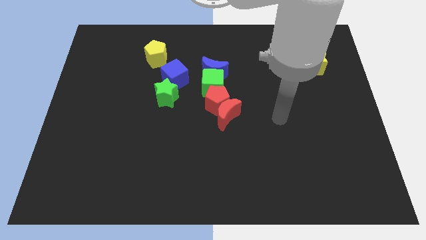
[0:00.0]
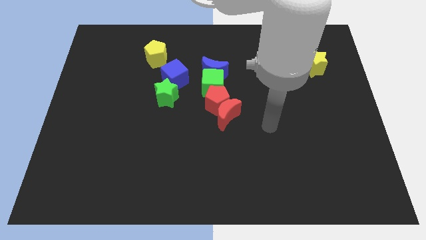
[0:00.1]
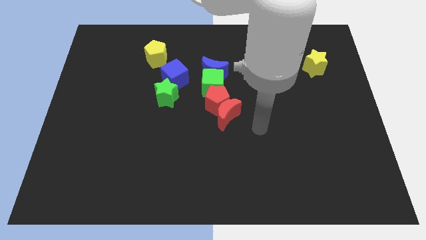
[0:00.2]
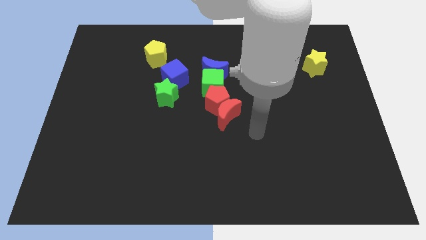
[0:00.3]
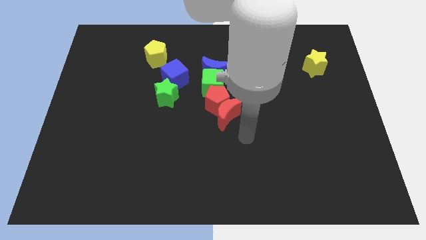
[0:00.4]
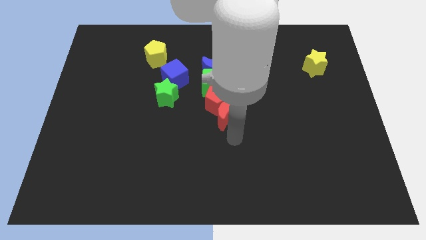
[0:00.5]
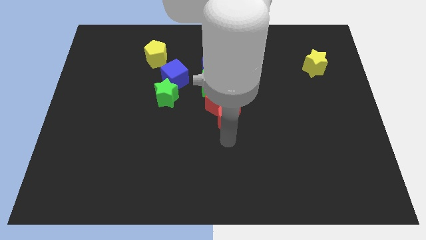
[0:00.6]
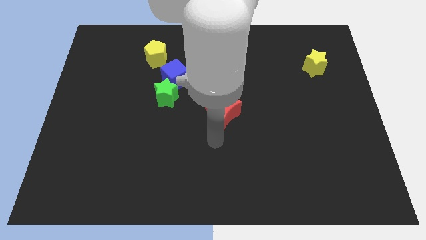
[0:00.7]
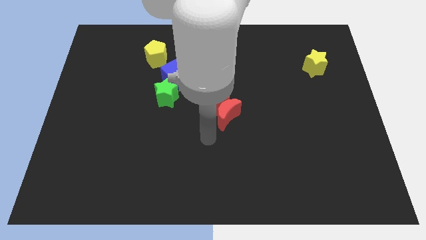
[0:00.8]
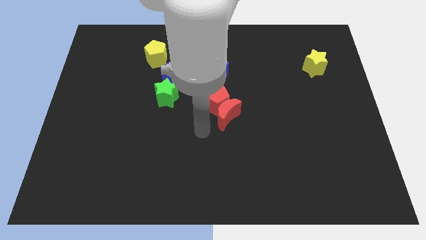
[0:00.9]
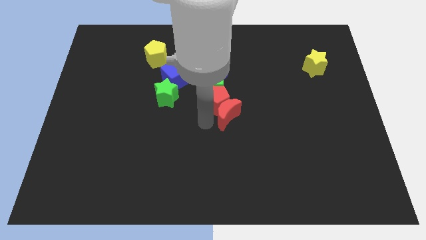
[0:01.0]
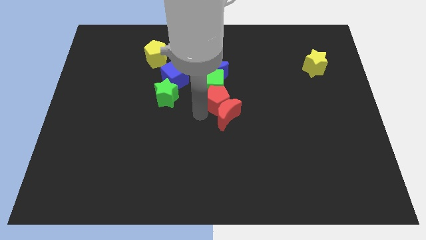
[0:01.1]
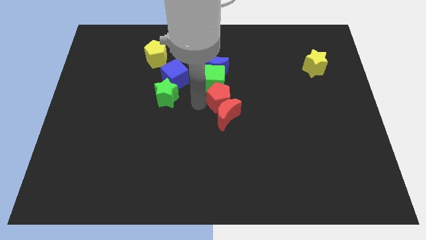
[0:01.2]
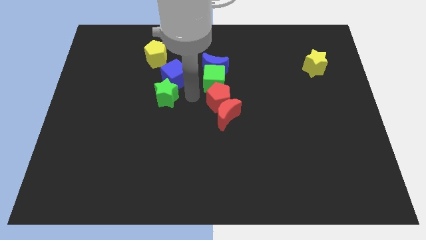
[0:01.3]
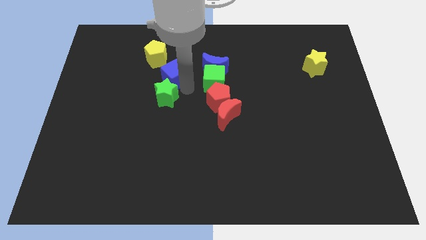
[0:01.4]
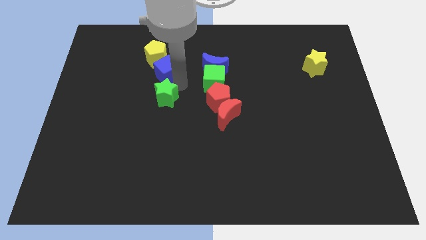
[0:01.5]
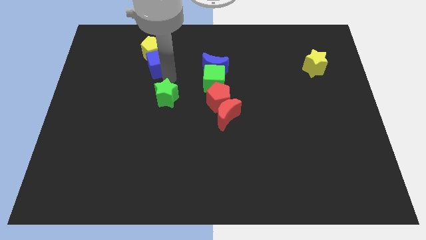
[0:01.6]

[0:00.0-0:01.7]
move the green star away from the blue cube

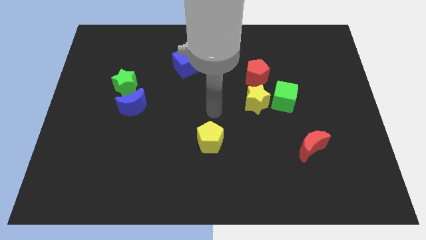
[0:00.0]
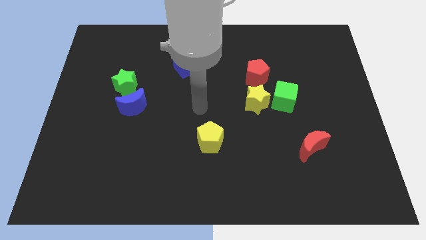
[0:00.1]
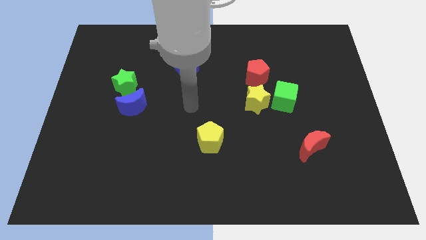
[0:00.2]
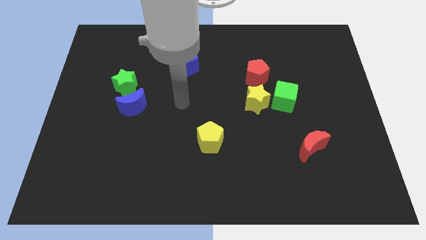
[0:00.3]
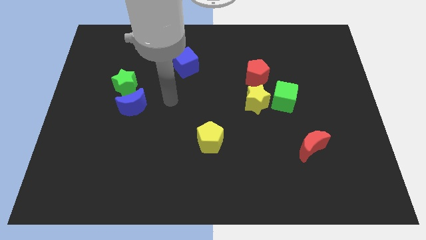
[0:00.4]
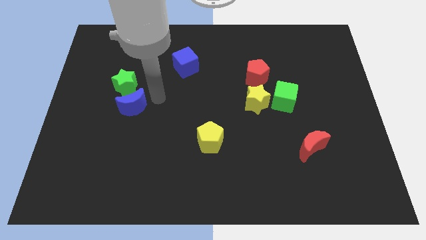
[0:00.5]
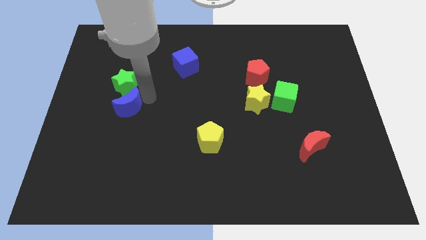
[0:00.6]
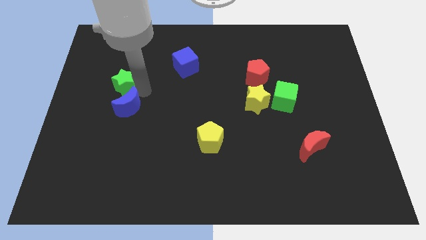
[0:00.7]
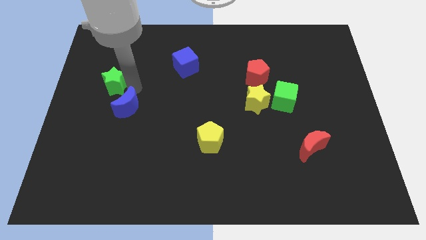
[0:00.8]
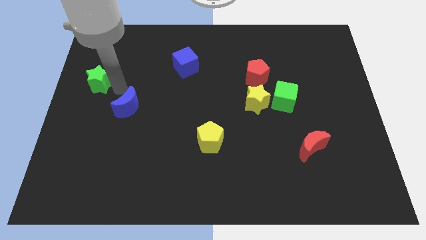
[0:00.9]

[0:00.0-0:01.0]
move the blue moon away from the green star

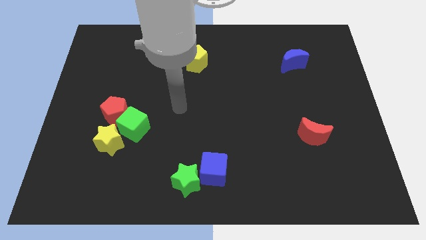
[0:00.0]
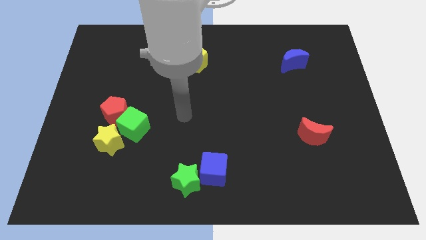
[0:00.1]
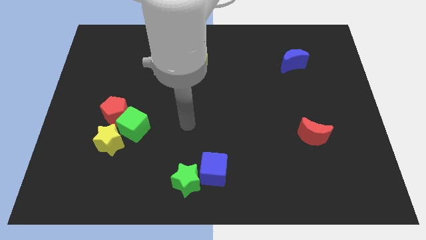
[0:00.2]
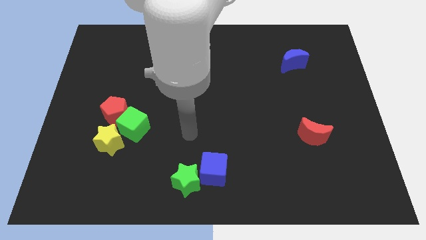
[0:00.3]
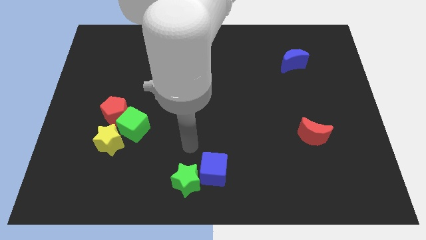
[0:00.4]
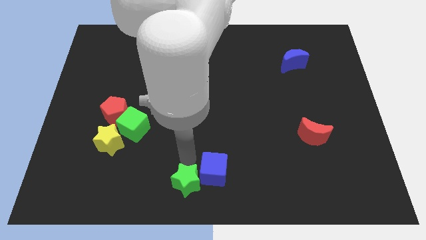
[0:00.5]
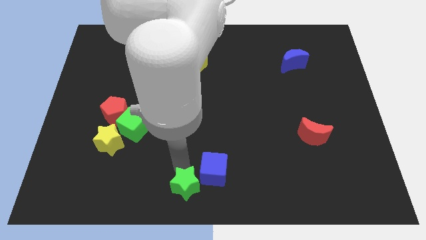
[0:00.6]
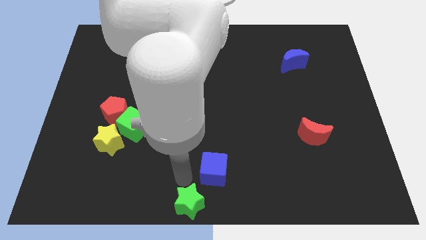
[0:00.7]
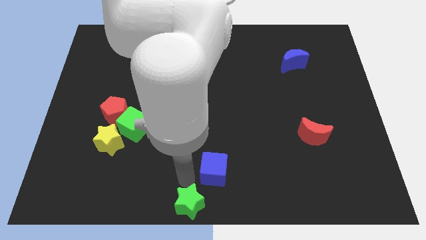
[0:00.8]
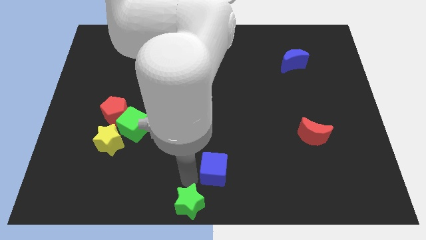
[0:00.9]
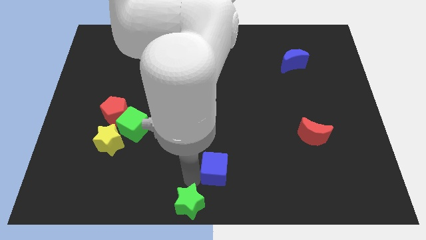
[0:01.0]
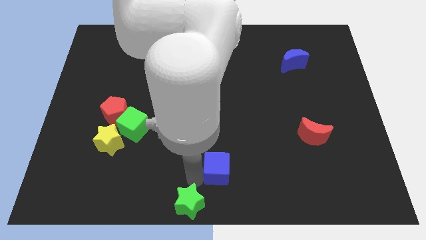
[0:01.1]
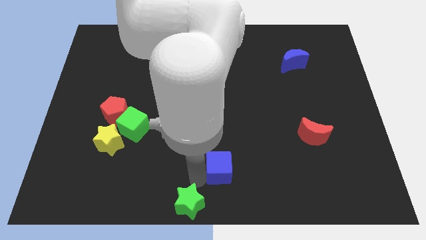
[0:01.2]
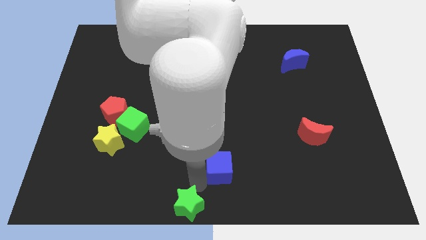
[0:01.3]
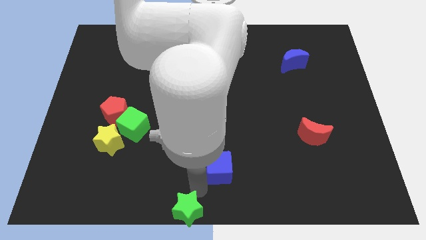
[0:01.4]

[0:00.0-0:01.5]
separate the blue cube from the green star

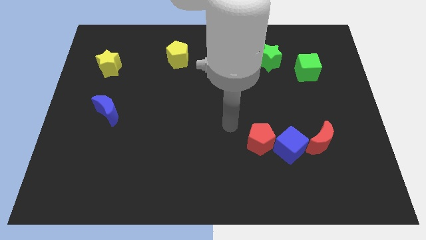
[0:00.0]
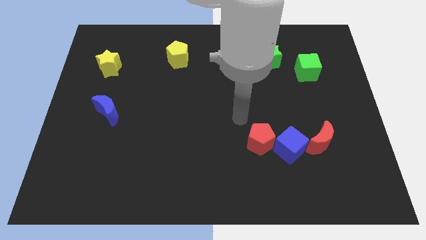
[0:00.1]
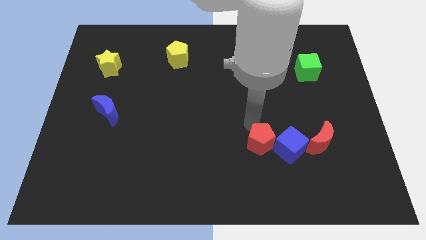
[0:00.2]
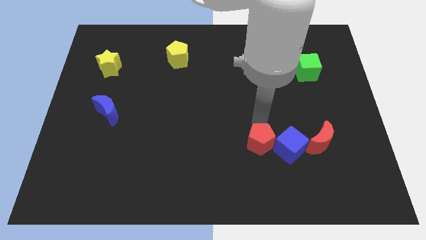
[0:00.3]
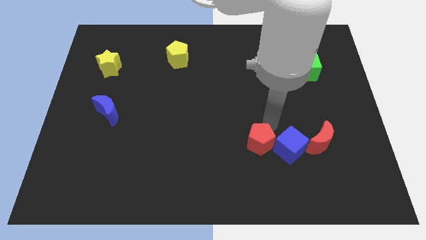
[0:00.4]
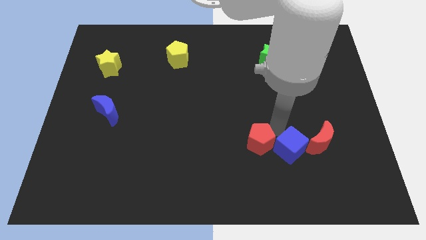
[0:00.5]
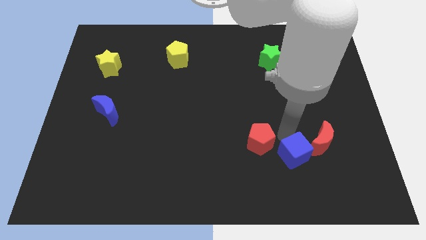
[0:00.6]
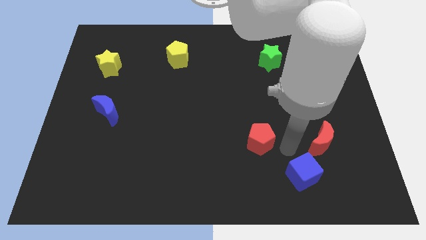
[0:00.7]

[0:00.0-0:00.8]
pull the red pentagon apart from the blue cube

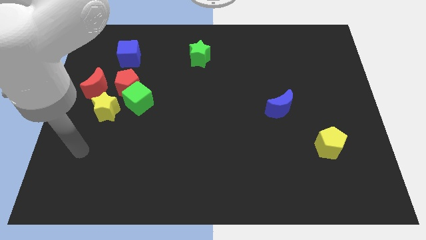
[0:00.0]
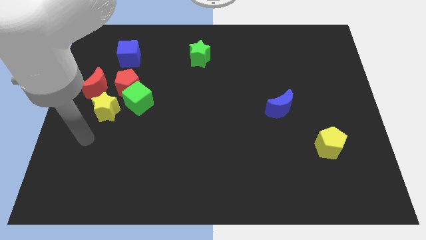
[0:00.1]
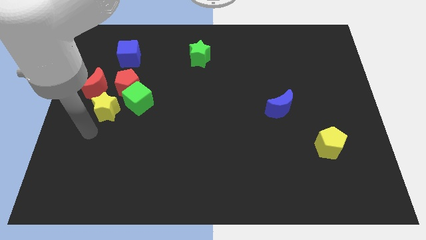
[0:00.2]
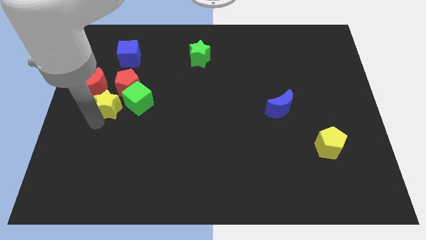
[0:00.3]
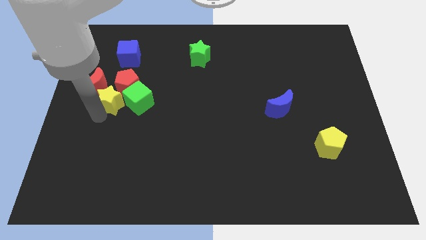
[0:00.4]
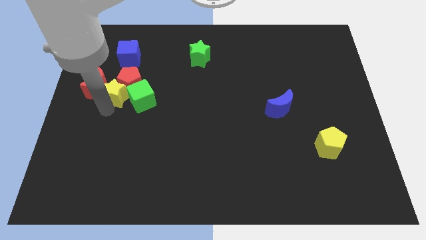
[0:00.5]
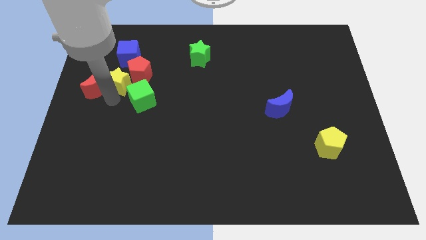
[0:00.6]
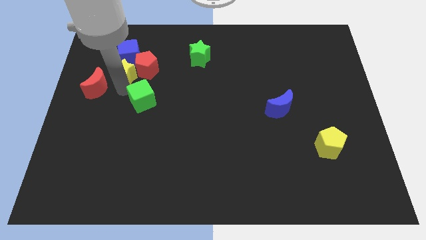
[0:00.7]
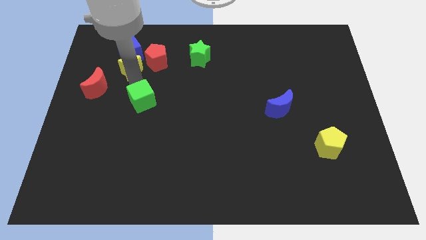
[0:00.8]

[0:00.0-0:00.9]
pull the green cube apart from the red pentagon and yellow star

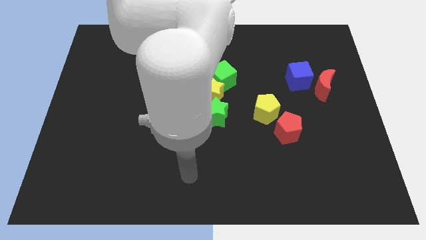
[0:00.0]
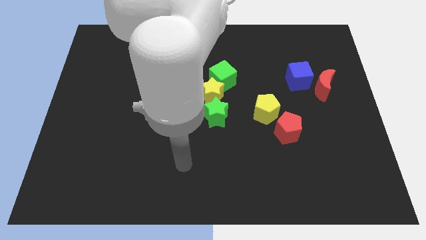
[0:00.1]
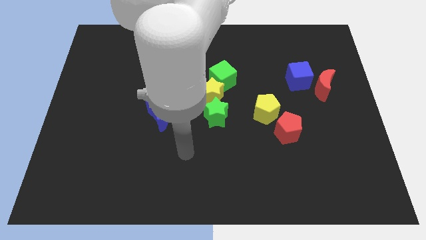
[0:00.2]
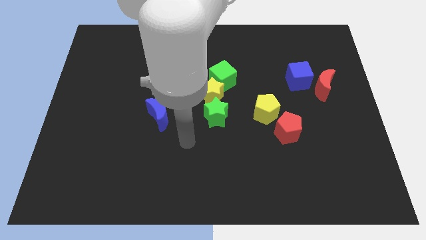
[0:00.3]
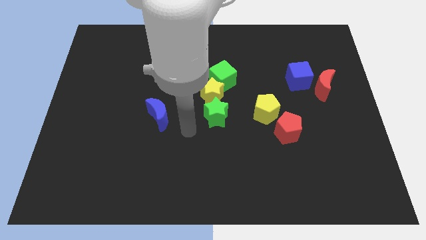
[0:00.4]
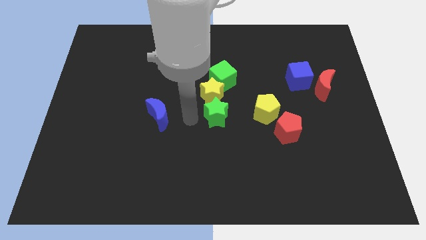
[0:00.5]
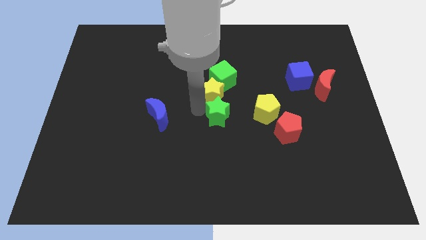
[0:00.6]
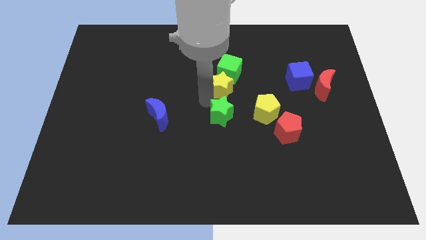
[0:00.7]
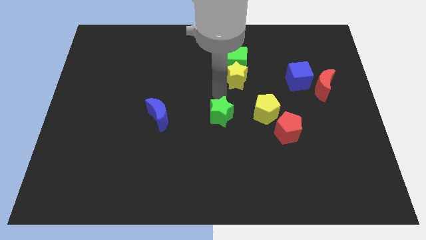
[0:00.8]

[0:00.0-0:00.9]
separate the green star from the yellow star

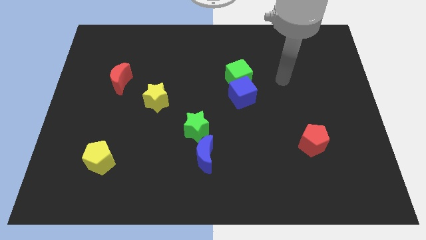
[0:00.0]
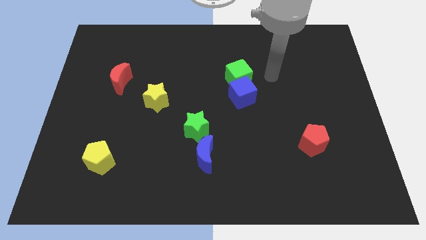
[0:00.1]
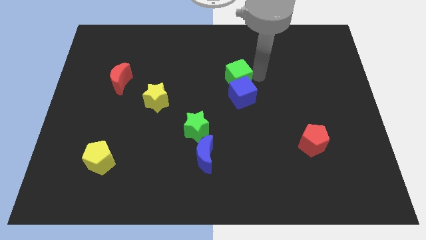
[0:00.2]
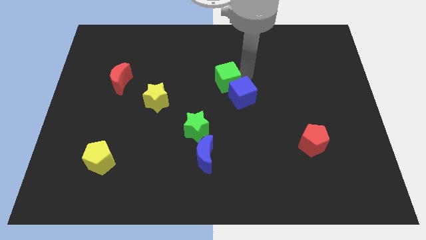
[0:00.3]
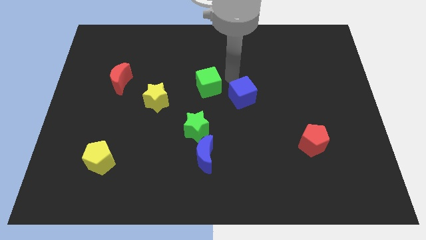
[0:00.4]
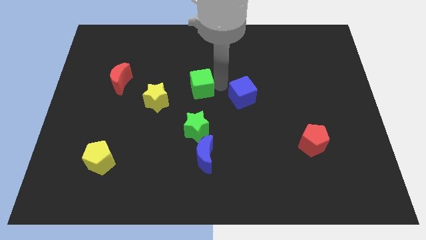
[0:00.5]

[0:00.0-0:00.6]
move the blue cube away from the green cube

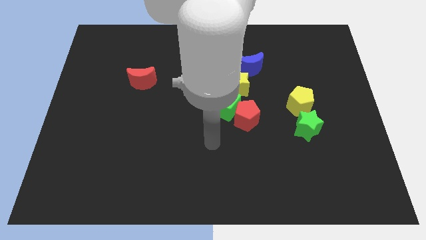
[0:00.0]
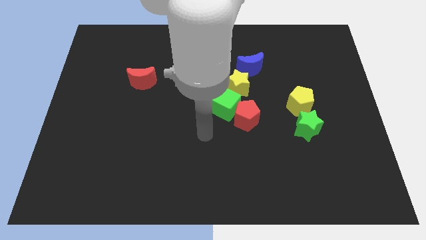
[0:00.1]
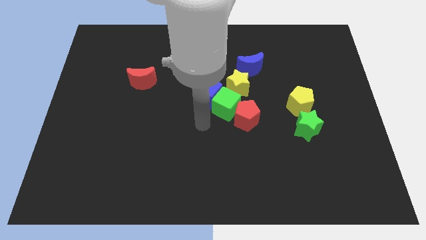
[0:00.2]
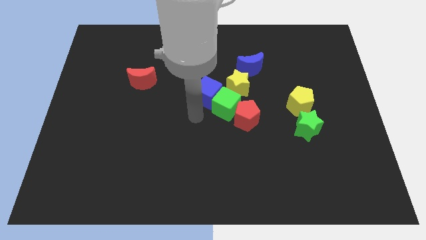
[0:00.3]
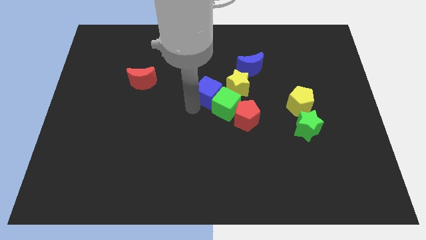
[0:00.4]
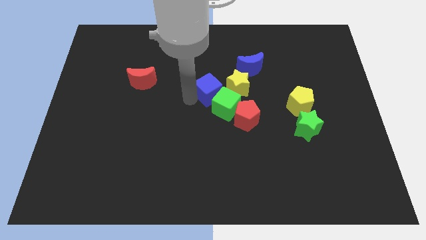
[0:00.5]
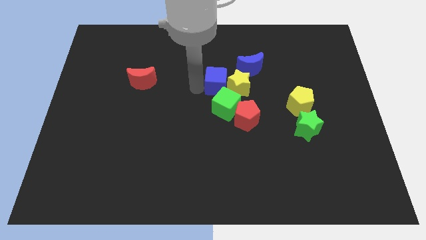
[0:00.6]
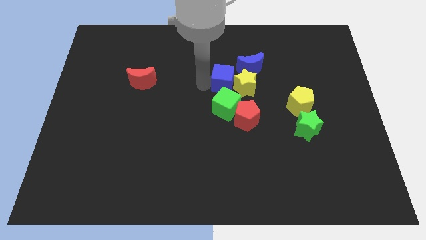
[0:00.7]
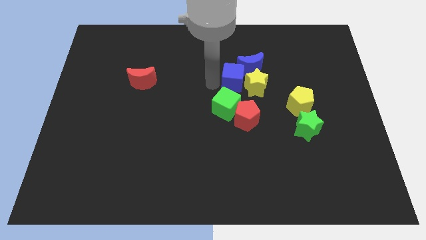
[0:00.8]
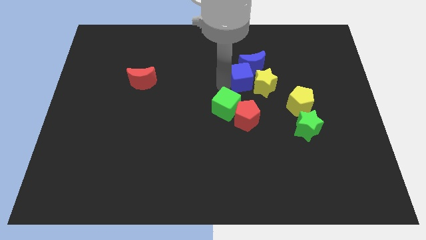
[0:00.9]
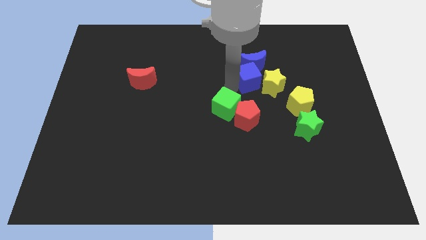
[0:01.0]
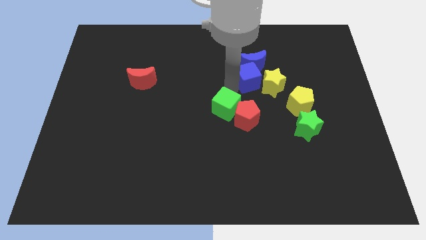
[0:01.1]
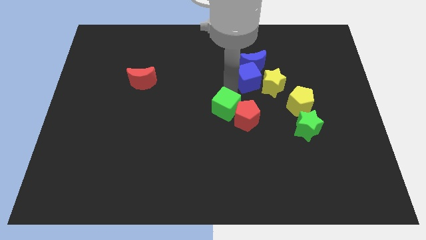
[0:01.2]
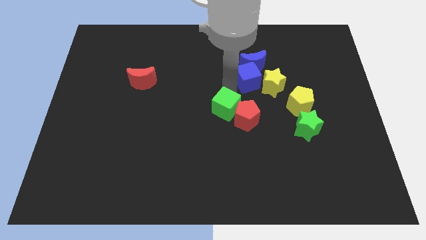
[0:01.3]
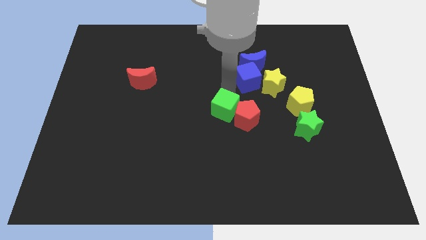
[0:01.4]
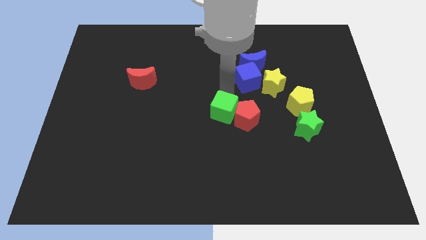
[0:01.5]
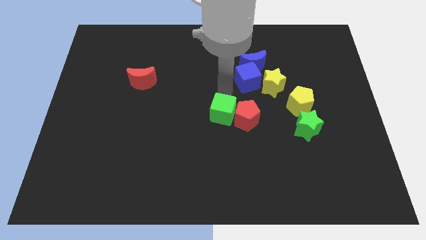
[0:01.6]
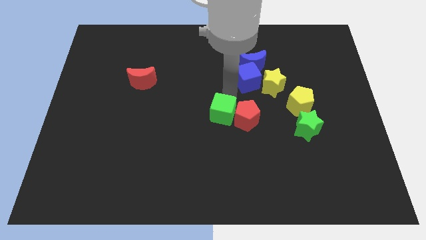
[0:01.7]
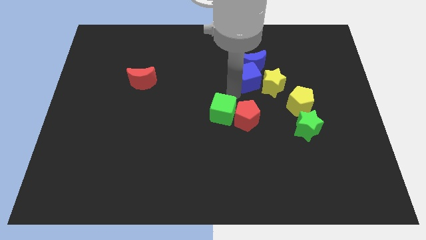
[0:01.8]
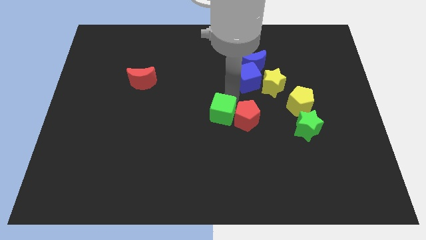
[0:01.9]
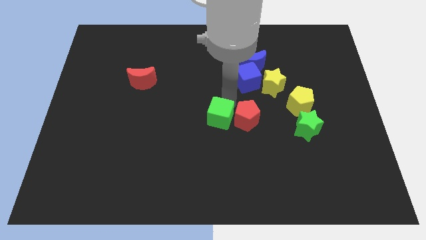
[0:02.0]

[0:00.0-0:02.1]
pull the green cube apart from the blue cube, red pentagon, and yellow star
